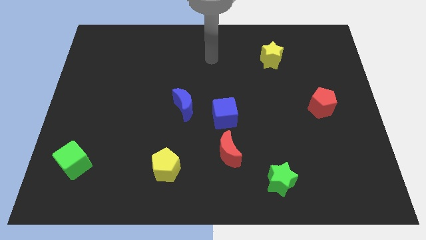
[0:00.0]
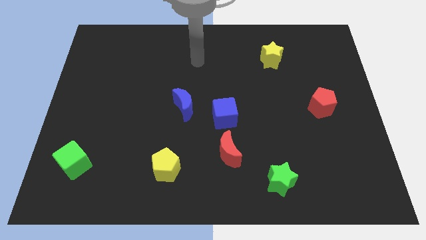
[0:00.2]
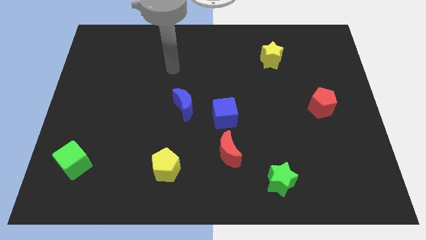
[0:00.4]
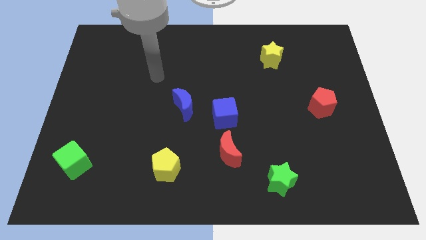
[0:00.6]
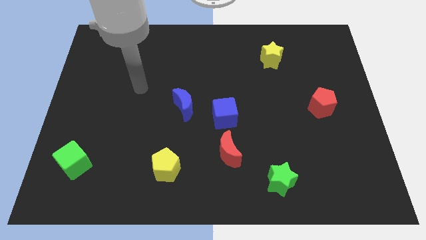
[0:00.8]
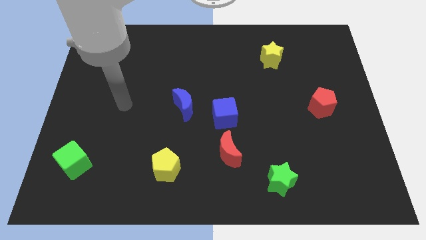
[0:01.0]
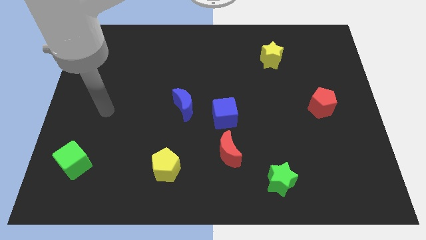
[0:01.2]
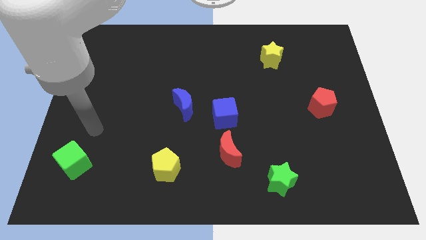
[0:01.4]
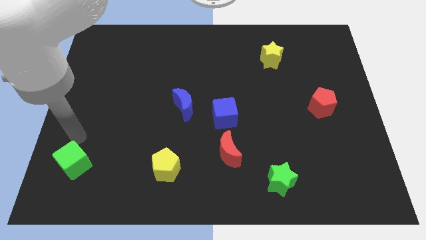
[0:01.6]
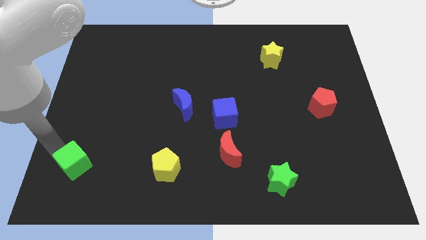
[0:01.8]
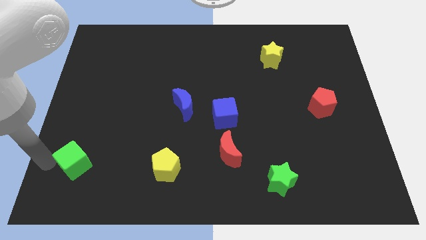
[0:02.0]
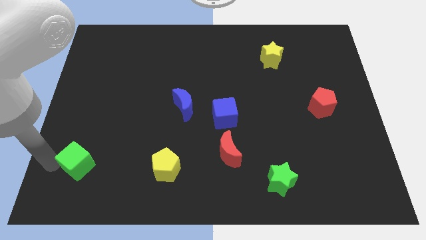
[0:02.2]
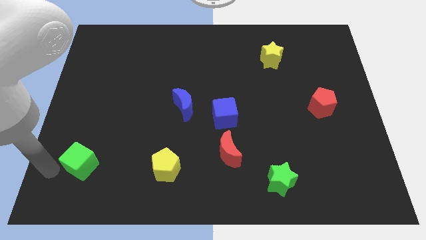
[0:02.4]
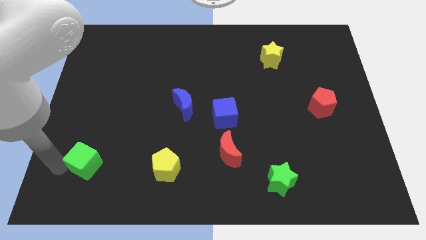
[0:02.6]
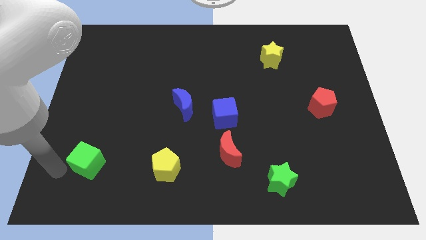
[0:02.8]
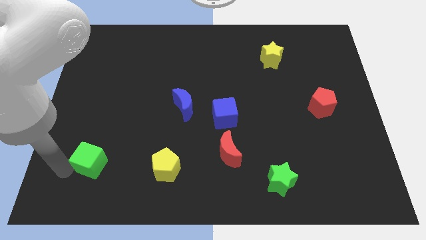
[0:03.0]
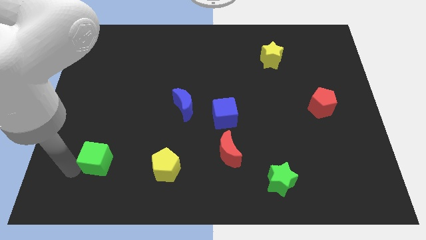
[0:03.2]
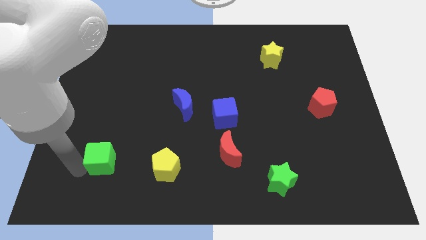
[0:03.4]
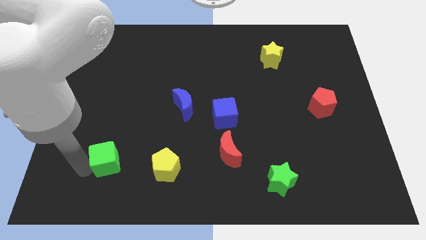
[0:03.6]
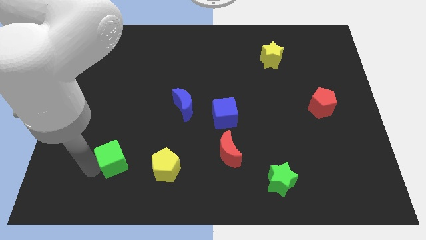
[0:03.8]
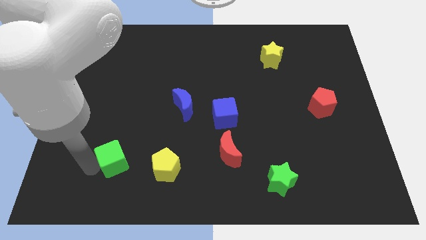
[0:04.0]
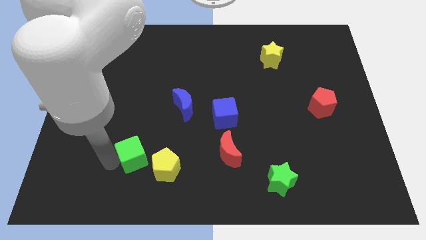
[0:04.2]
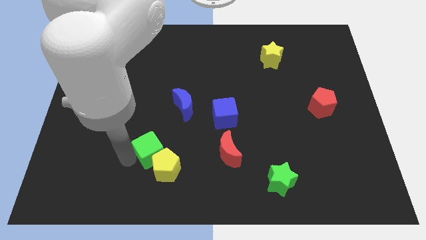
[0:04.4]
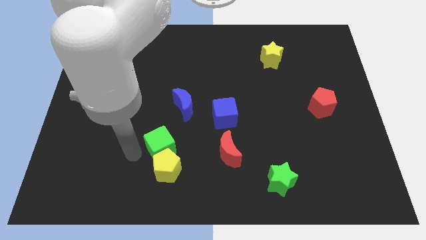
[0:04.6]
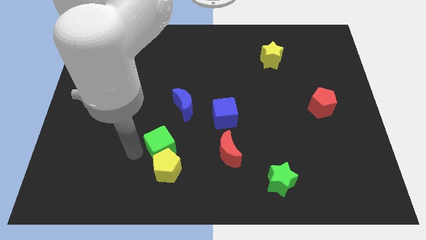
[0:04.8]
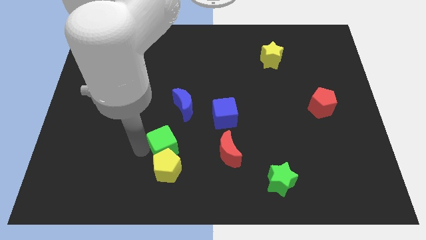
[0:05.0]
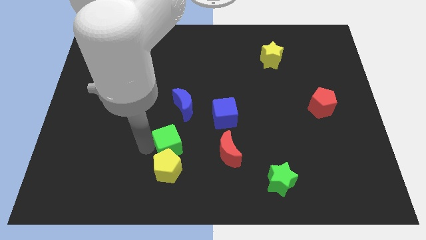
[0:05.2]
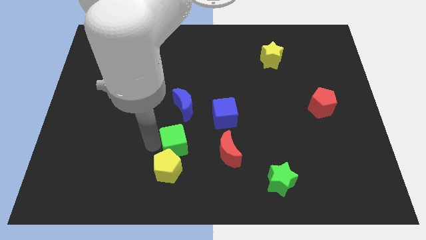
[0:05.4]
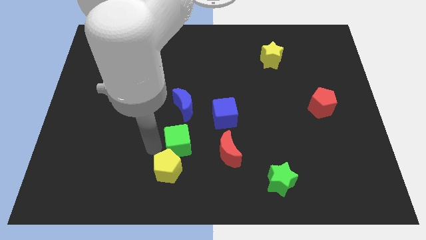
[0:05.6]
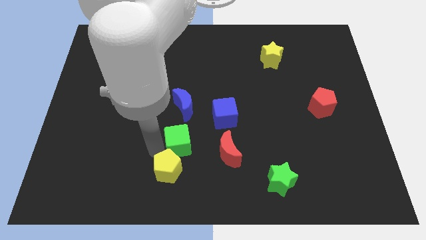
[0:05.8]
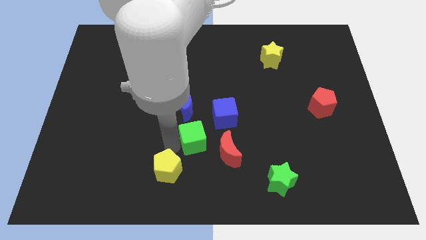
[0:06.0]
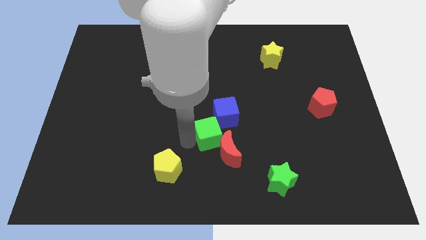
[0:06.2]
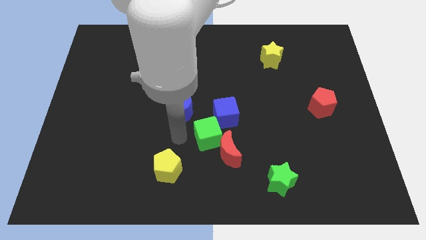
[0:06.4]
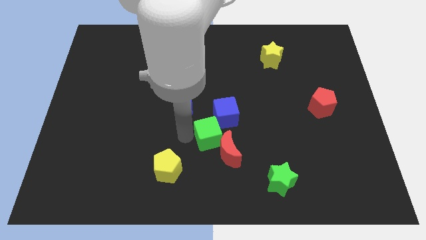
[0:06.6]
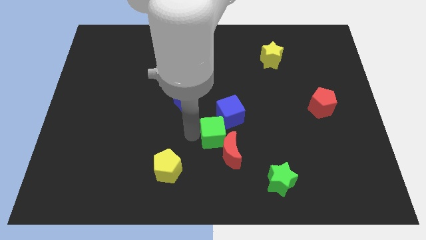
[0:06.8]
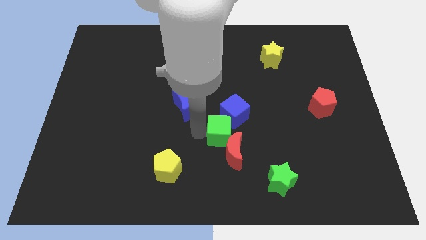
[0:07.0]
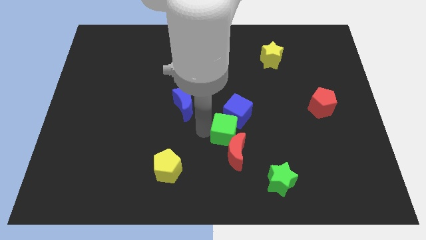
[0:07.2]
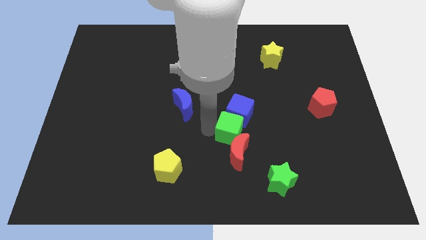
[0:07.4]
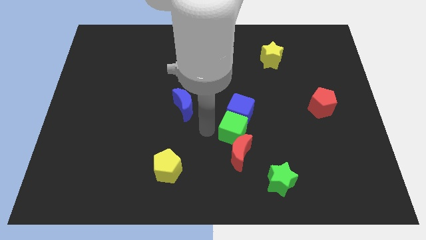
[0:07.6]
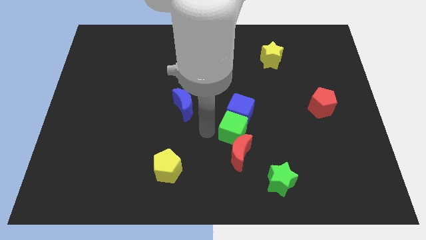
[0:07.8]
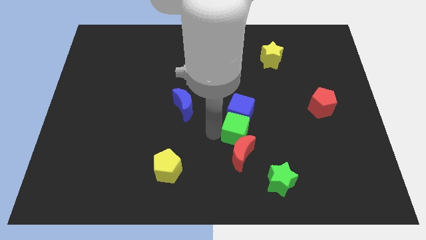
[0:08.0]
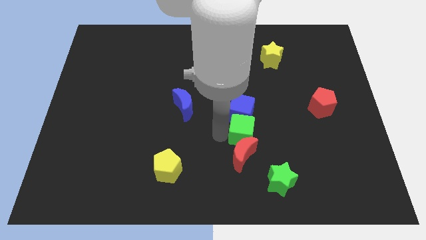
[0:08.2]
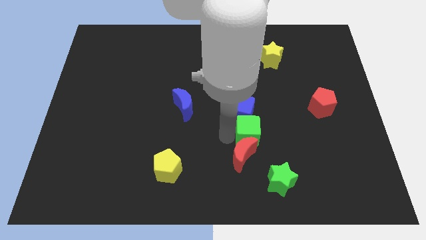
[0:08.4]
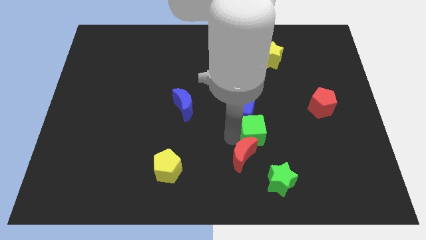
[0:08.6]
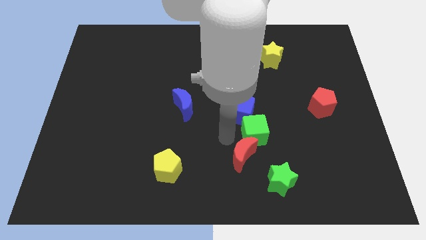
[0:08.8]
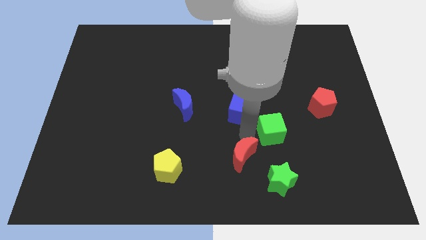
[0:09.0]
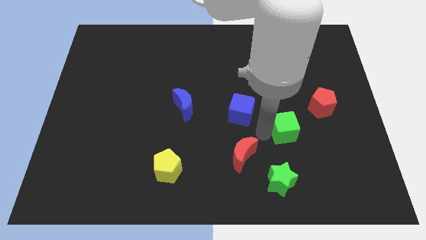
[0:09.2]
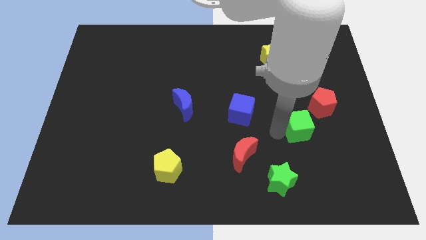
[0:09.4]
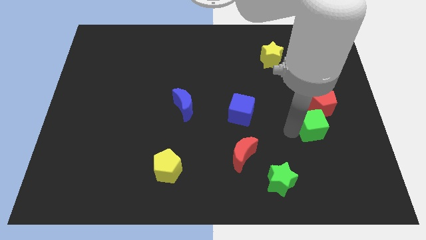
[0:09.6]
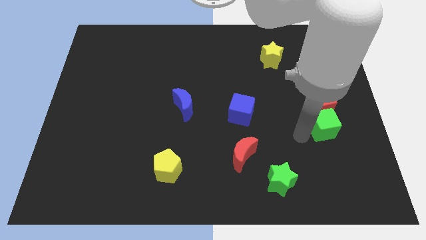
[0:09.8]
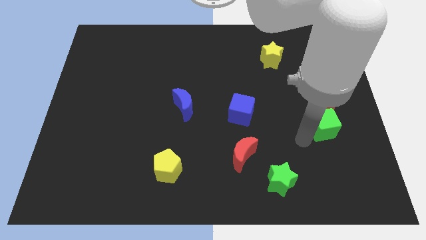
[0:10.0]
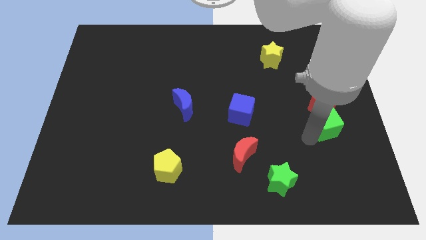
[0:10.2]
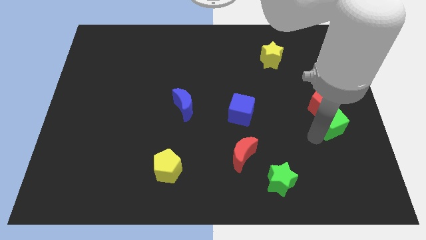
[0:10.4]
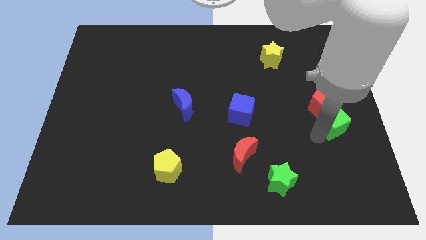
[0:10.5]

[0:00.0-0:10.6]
slide the green cube to the right side of the board
